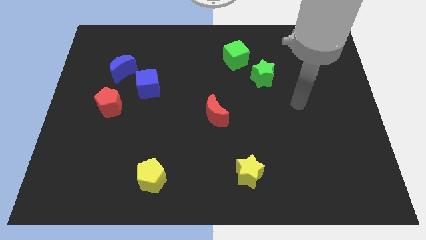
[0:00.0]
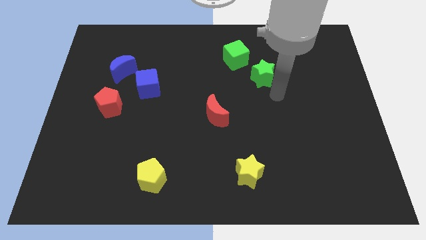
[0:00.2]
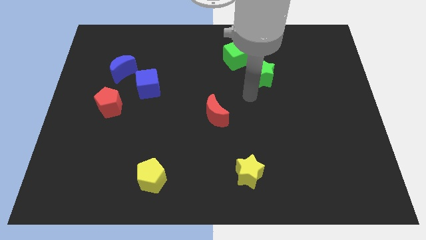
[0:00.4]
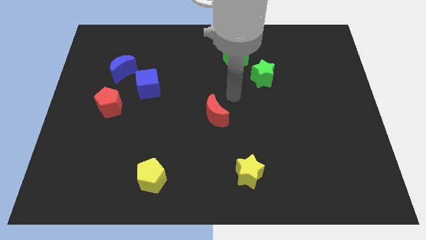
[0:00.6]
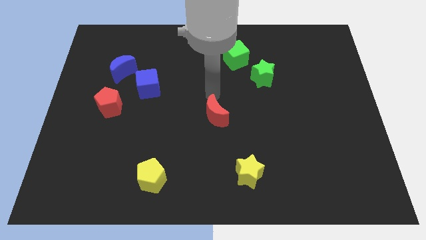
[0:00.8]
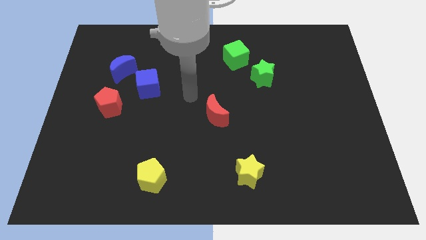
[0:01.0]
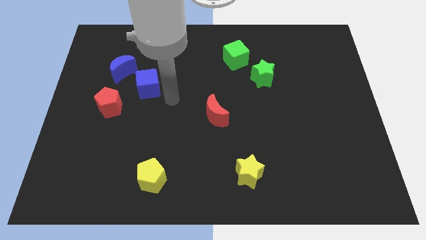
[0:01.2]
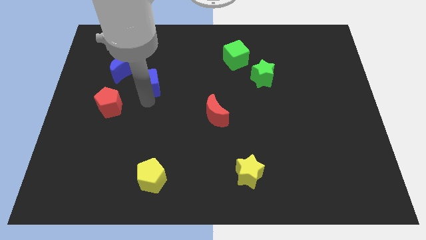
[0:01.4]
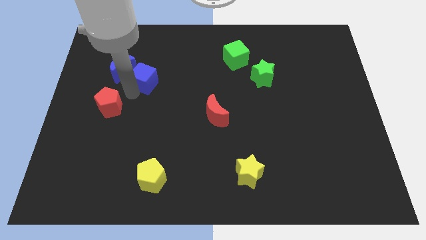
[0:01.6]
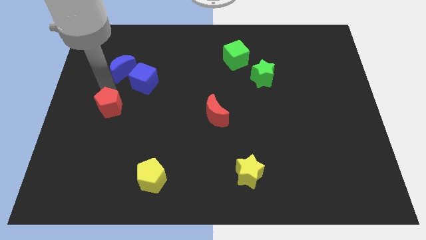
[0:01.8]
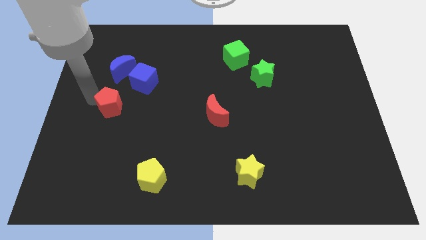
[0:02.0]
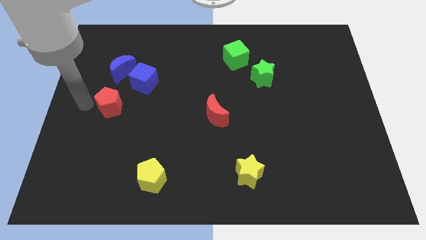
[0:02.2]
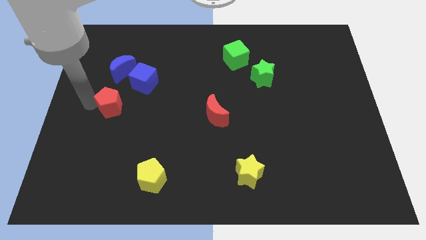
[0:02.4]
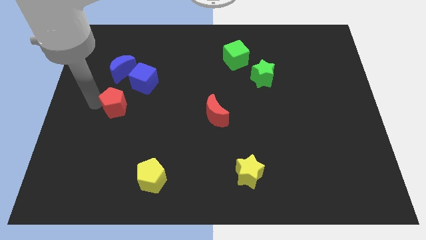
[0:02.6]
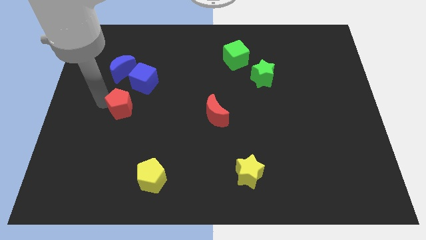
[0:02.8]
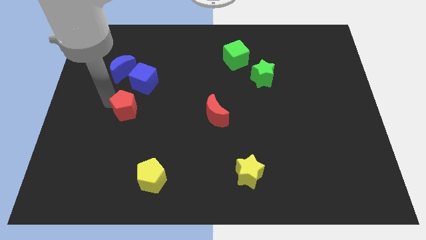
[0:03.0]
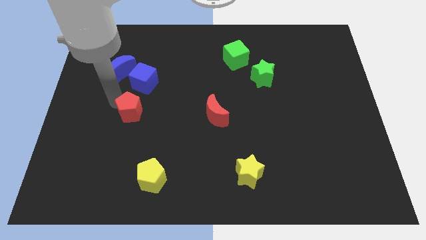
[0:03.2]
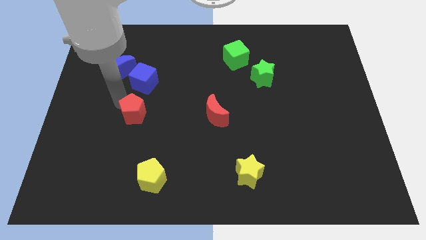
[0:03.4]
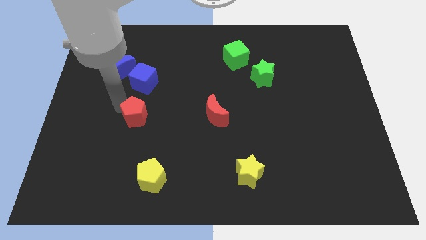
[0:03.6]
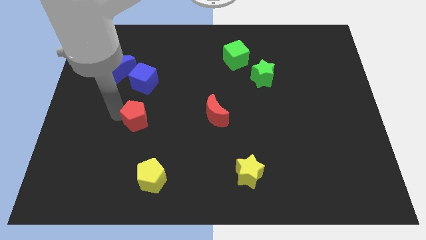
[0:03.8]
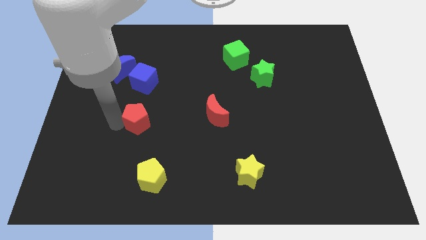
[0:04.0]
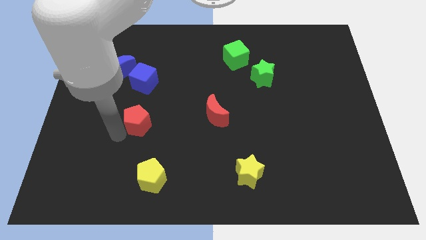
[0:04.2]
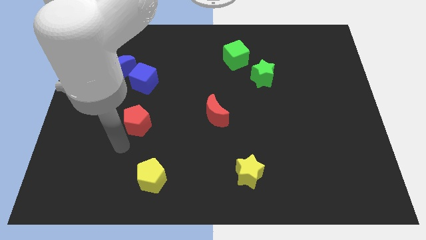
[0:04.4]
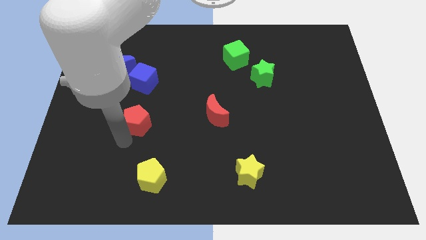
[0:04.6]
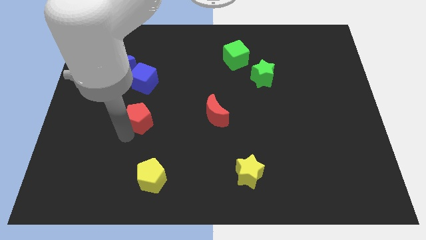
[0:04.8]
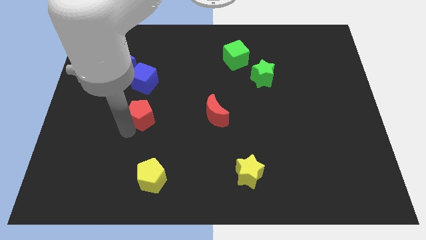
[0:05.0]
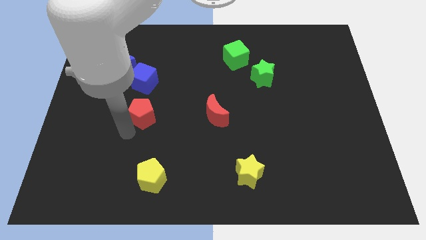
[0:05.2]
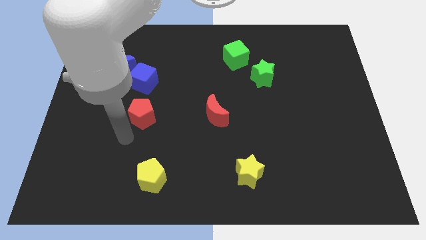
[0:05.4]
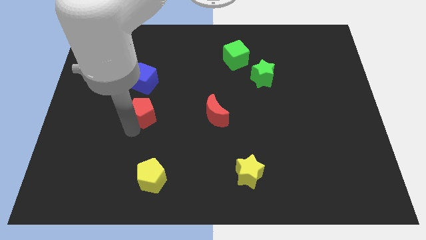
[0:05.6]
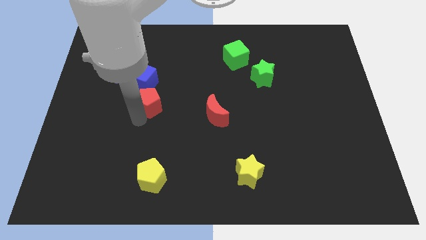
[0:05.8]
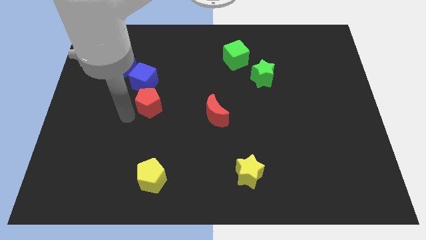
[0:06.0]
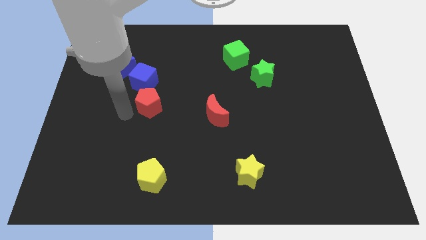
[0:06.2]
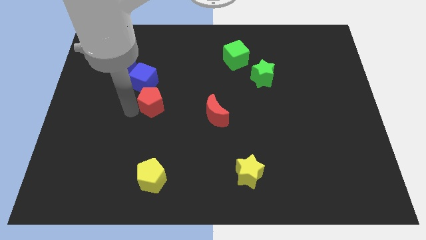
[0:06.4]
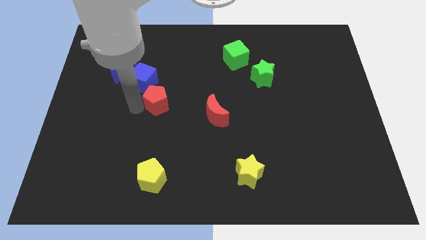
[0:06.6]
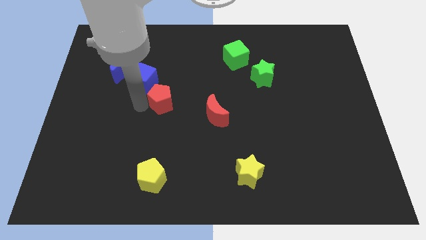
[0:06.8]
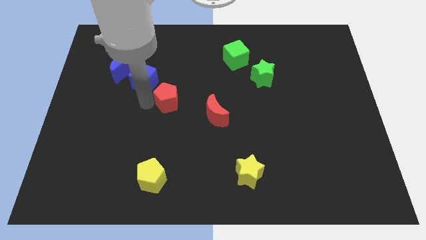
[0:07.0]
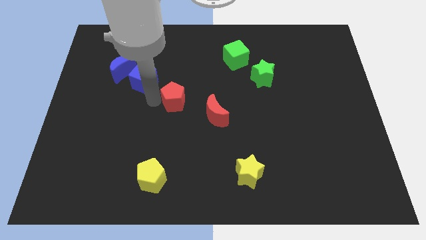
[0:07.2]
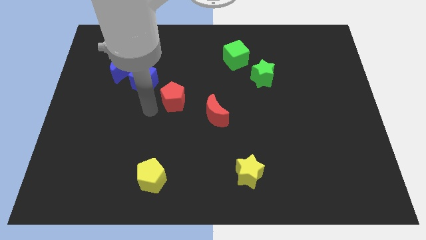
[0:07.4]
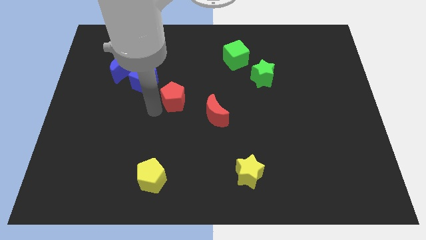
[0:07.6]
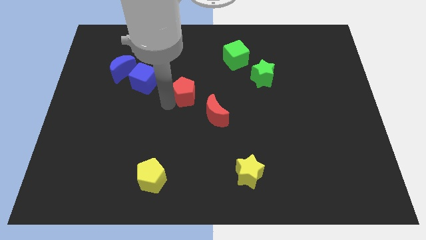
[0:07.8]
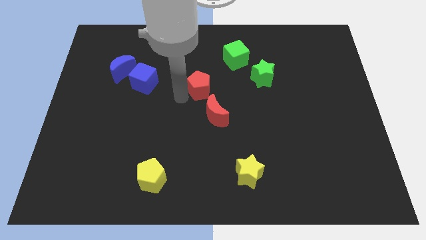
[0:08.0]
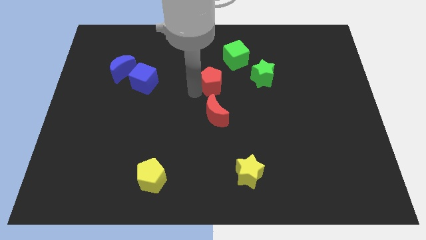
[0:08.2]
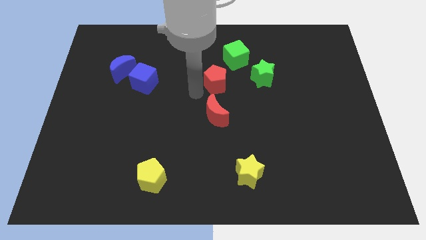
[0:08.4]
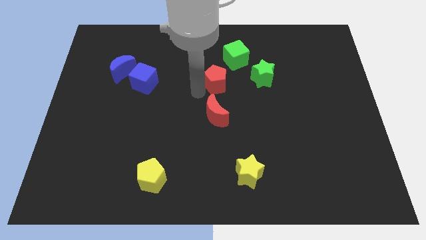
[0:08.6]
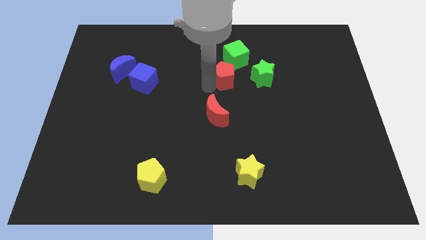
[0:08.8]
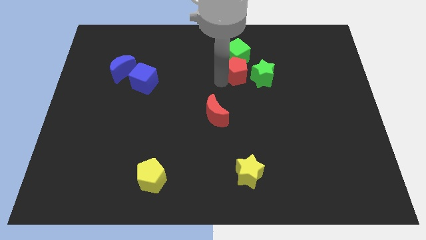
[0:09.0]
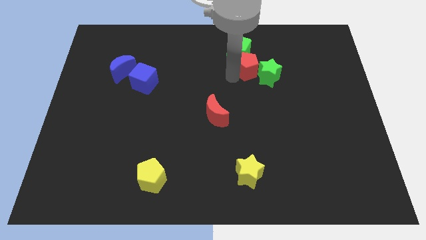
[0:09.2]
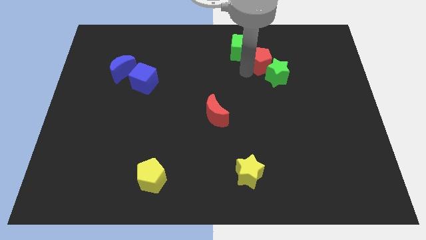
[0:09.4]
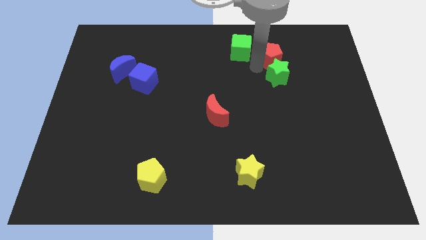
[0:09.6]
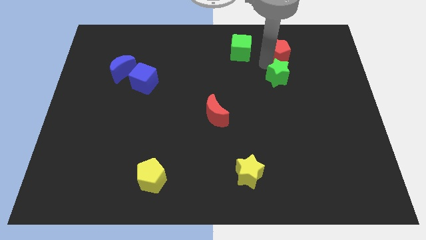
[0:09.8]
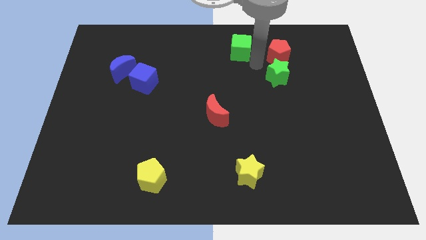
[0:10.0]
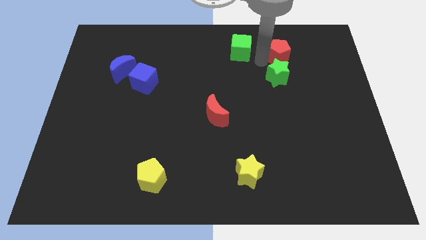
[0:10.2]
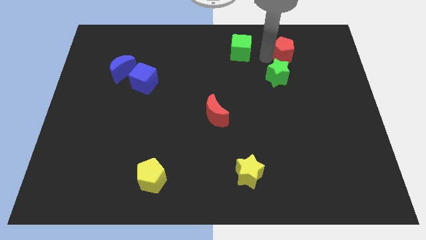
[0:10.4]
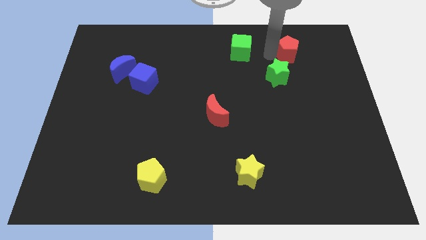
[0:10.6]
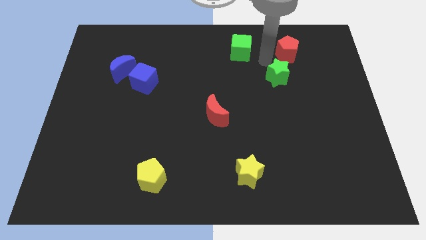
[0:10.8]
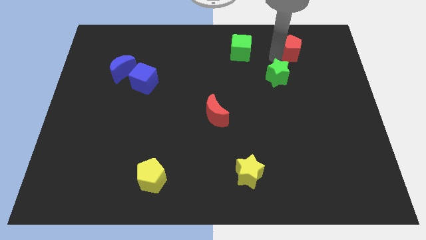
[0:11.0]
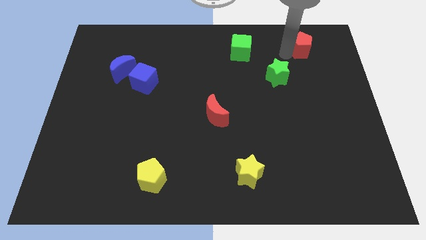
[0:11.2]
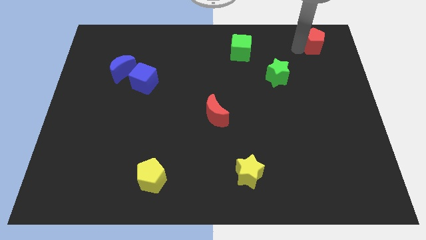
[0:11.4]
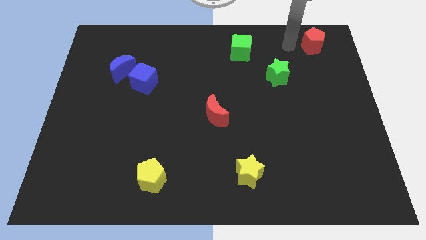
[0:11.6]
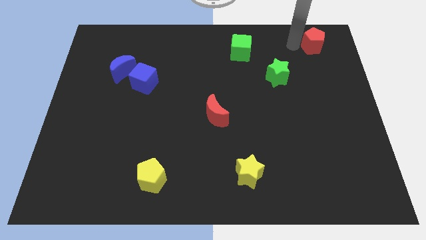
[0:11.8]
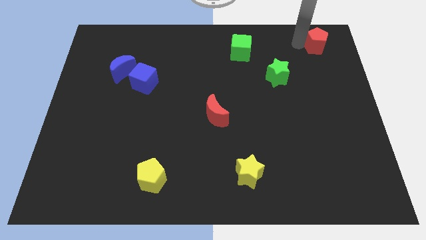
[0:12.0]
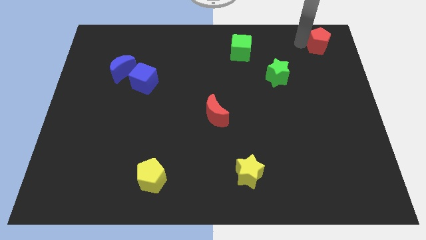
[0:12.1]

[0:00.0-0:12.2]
move the red pentagon to the top right
